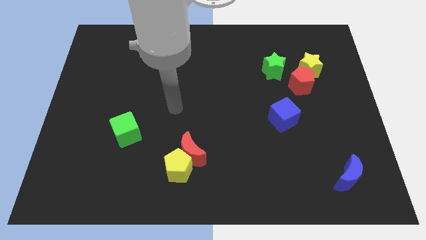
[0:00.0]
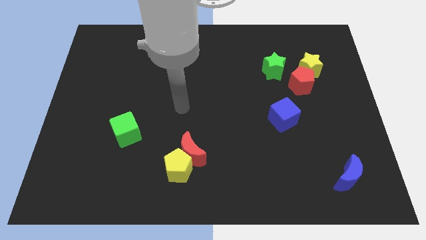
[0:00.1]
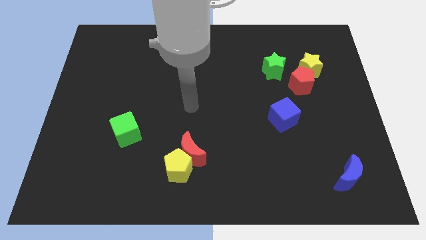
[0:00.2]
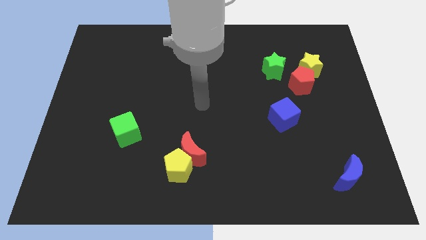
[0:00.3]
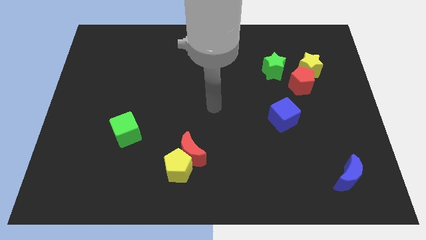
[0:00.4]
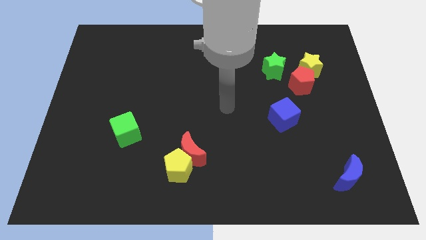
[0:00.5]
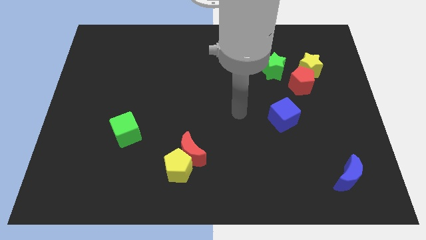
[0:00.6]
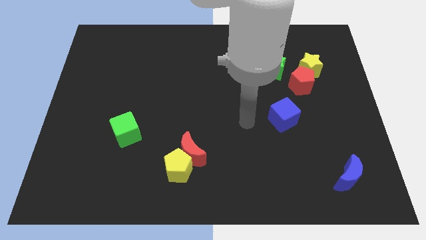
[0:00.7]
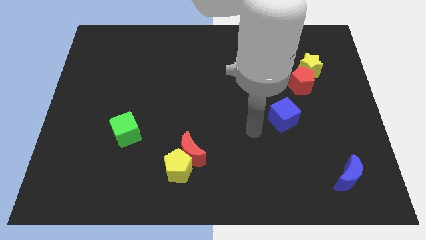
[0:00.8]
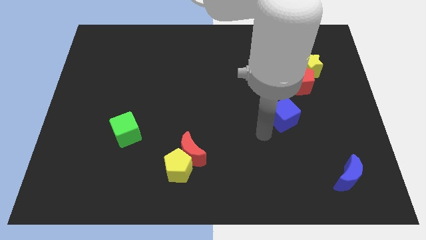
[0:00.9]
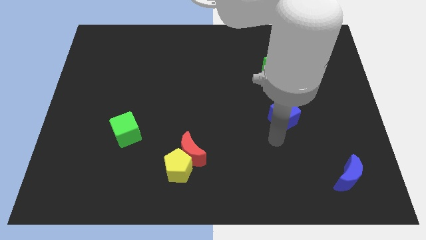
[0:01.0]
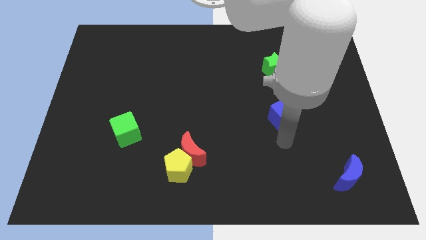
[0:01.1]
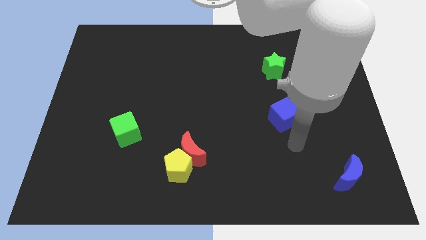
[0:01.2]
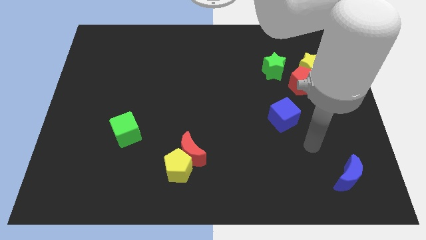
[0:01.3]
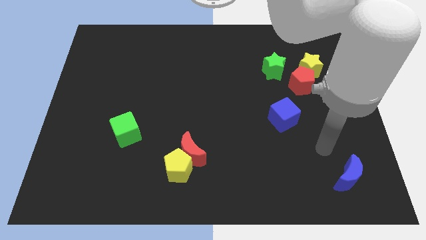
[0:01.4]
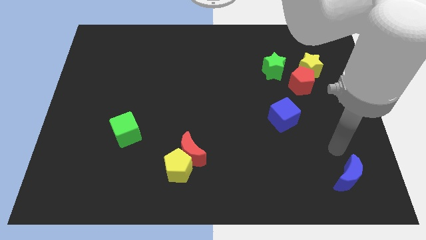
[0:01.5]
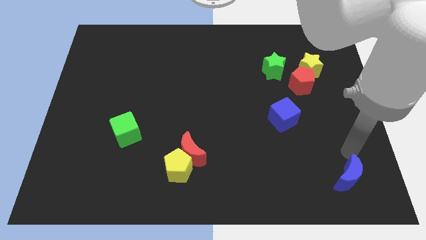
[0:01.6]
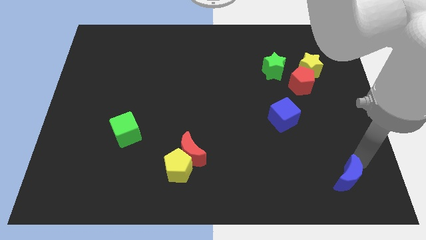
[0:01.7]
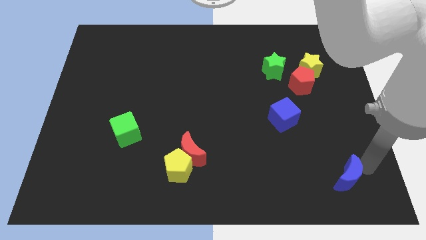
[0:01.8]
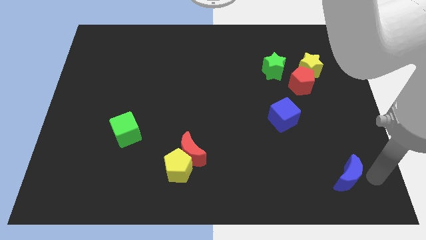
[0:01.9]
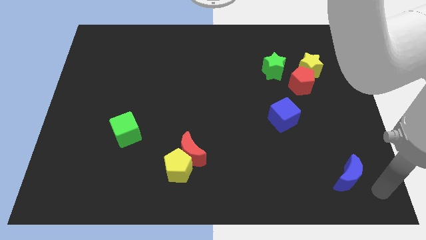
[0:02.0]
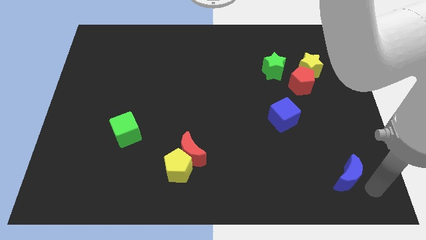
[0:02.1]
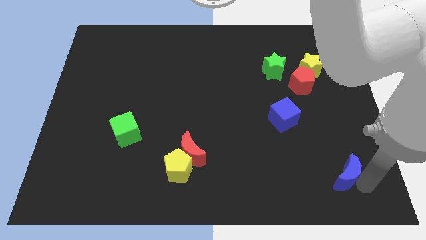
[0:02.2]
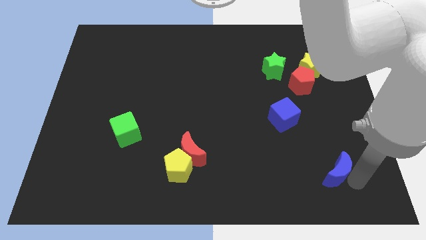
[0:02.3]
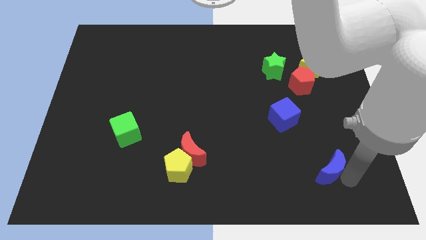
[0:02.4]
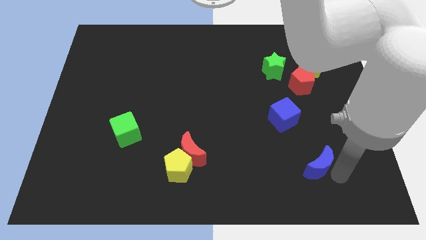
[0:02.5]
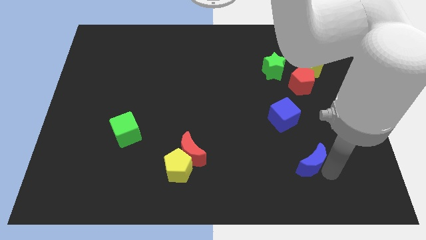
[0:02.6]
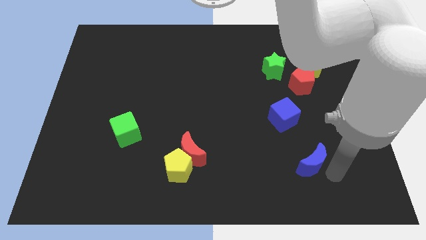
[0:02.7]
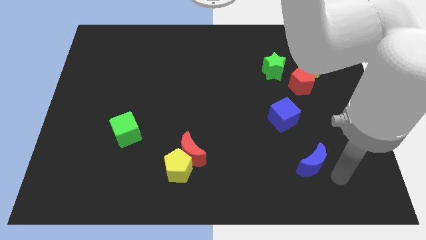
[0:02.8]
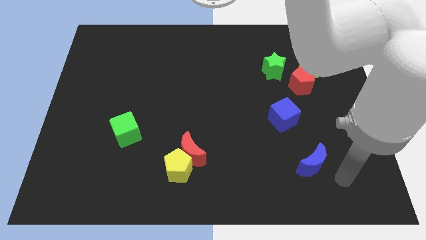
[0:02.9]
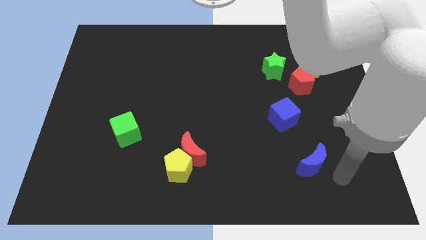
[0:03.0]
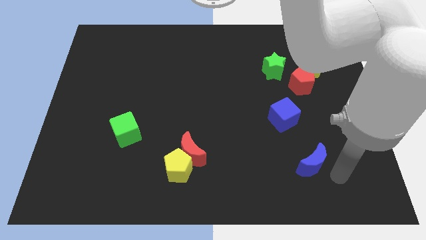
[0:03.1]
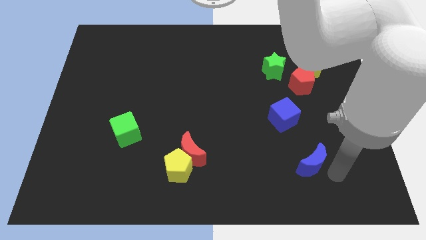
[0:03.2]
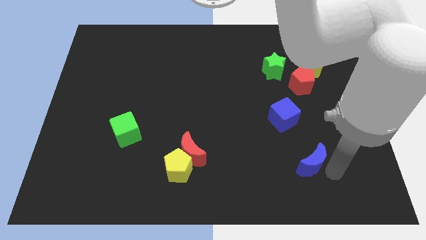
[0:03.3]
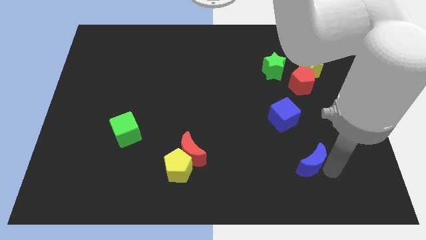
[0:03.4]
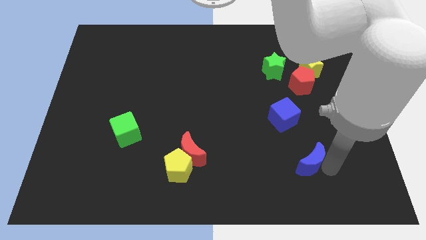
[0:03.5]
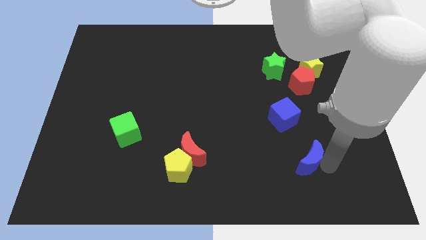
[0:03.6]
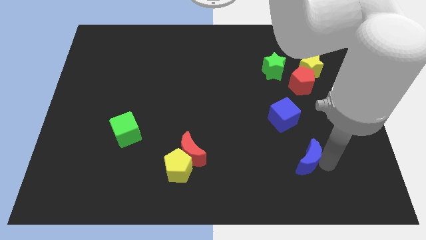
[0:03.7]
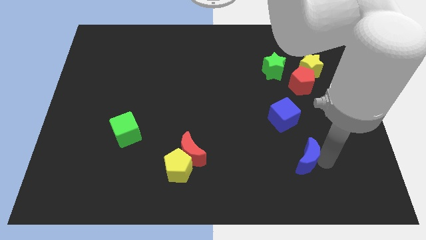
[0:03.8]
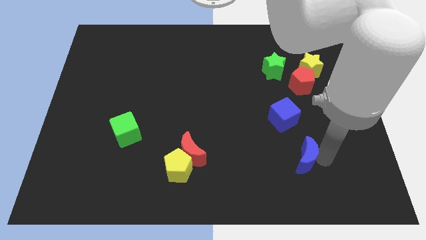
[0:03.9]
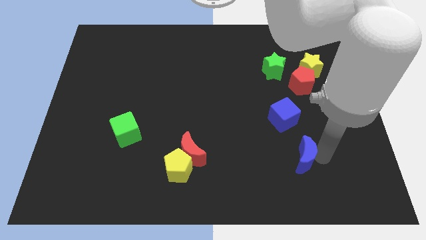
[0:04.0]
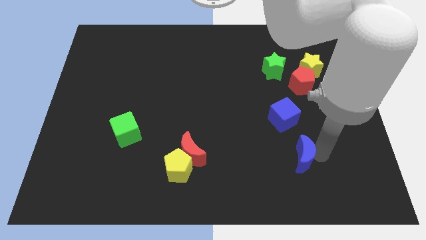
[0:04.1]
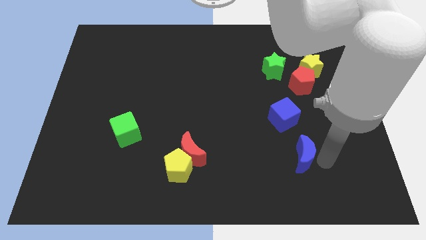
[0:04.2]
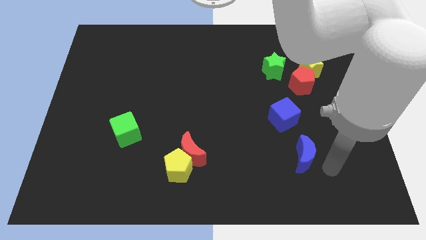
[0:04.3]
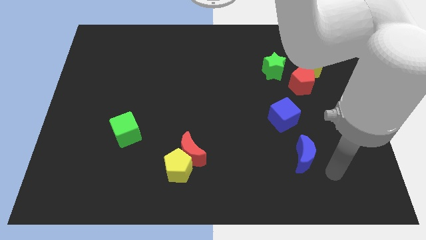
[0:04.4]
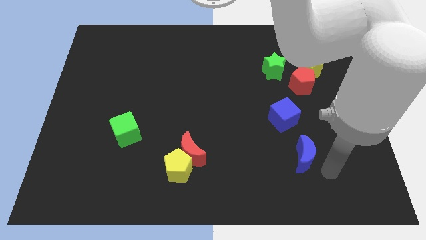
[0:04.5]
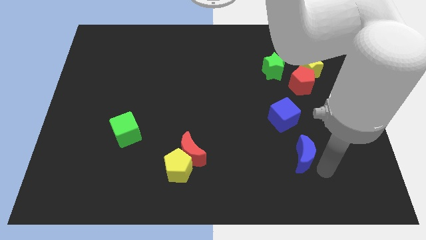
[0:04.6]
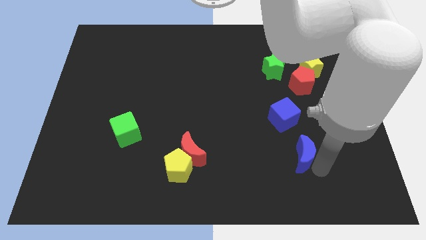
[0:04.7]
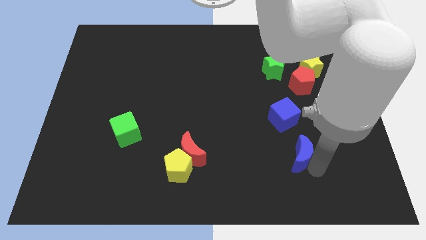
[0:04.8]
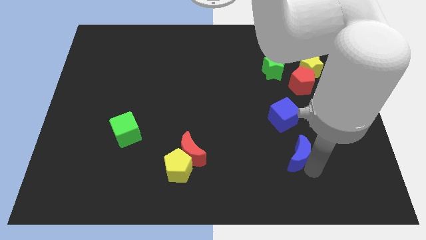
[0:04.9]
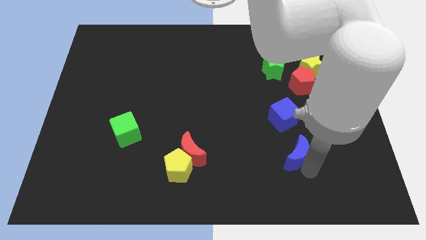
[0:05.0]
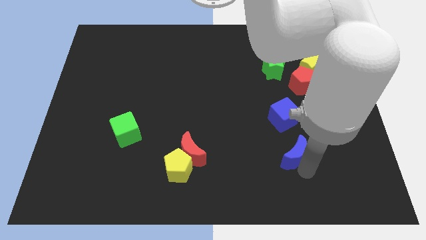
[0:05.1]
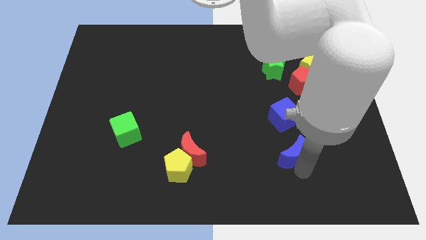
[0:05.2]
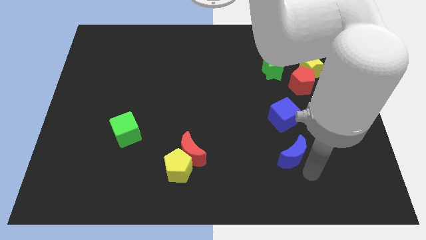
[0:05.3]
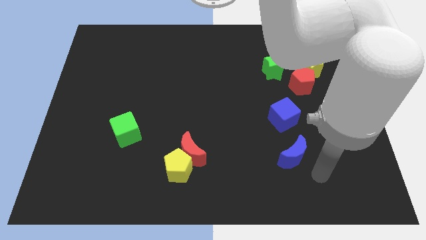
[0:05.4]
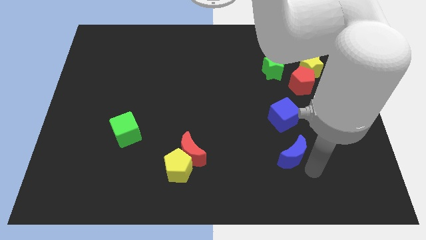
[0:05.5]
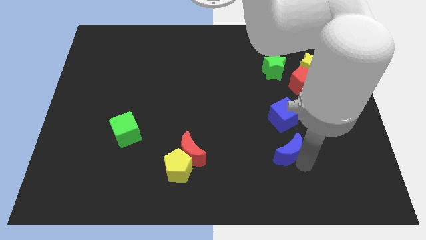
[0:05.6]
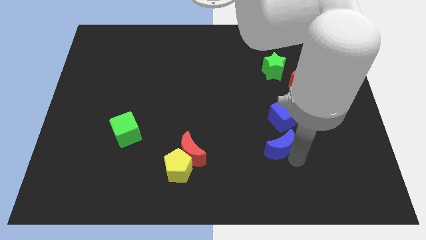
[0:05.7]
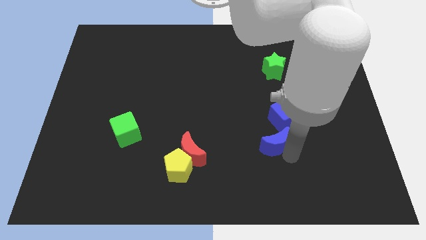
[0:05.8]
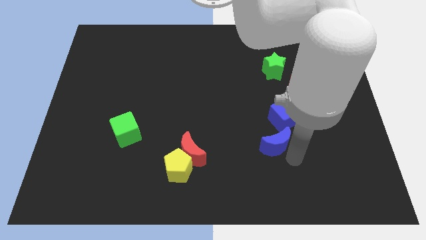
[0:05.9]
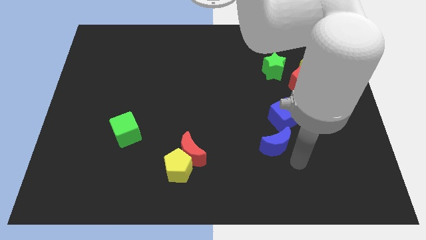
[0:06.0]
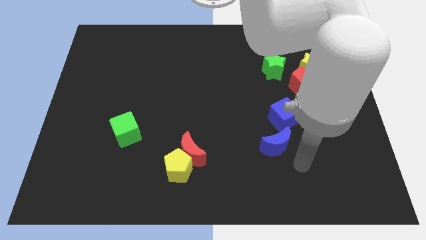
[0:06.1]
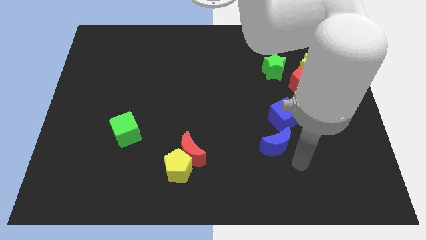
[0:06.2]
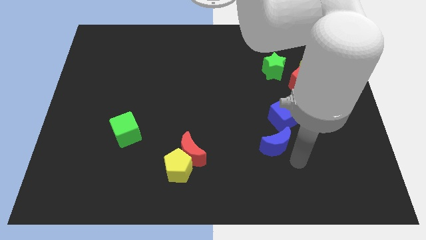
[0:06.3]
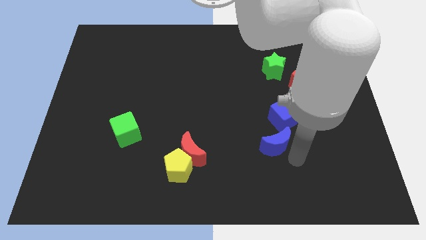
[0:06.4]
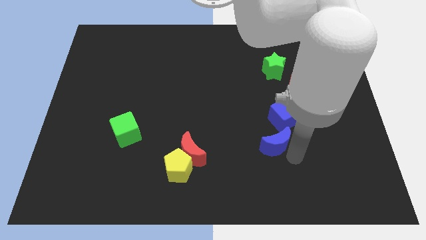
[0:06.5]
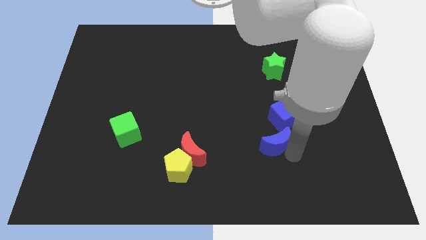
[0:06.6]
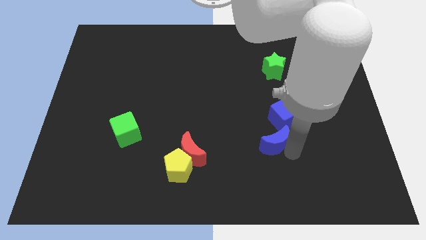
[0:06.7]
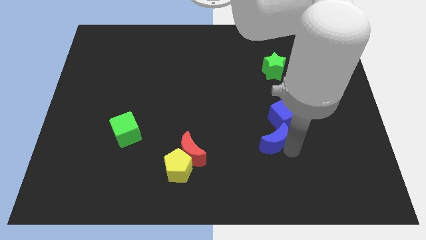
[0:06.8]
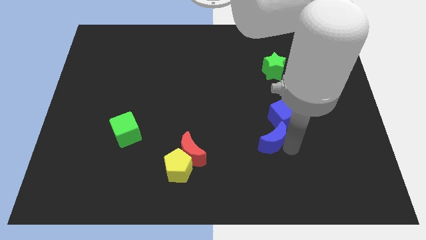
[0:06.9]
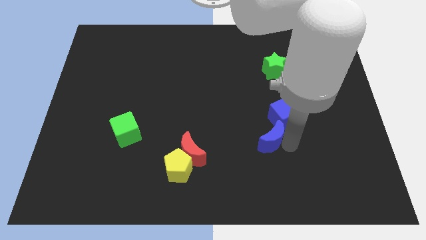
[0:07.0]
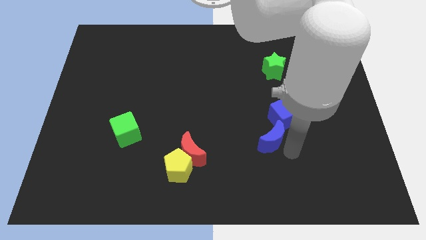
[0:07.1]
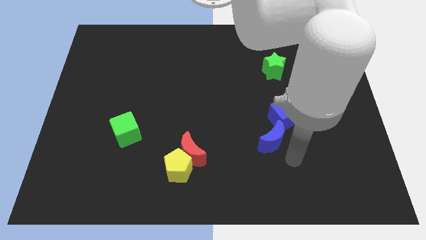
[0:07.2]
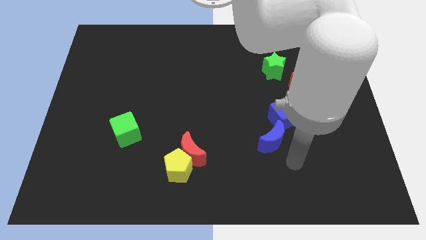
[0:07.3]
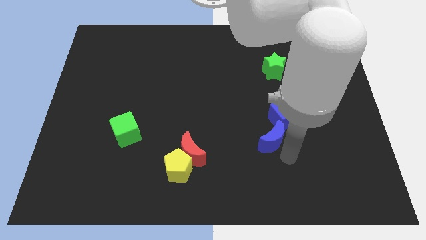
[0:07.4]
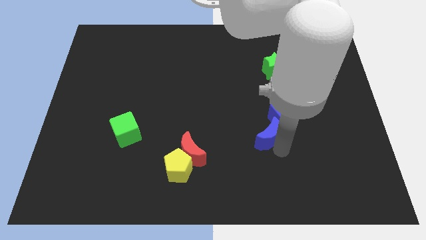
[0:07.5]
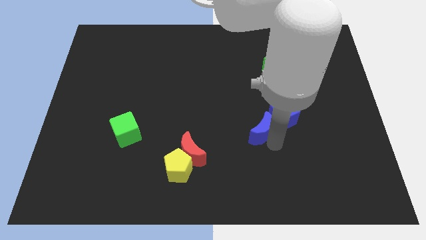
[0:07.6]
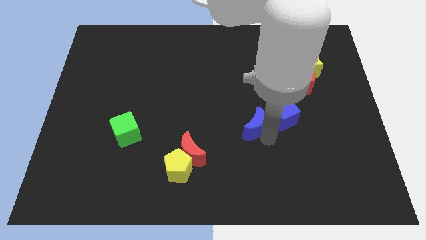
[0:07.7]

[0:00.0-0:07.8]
push the blue moon upwards and to the left

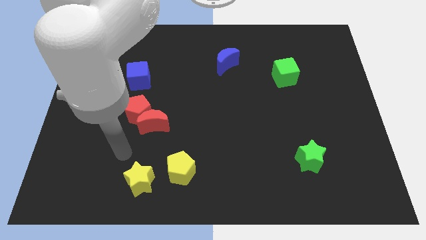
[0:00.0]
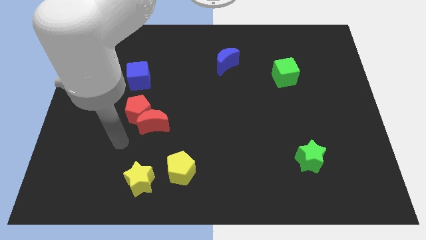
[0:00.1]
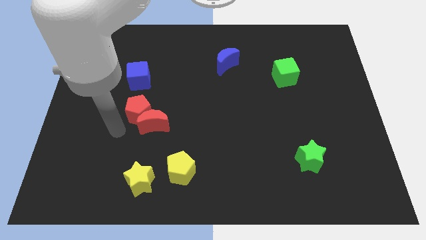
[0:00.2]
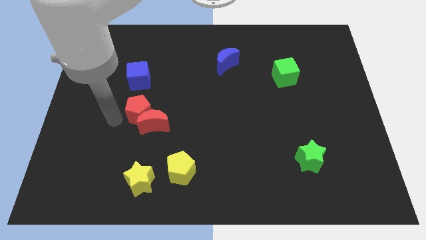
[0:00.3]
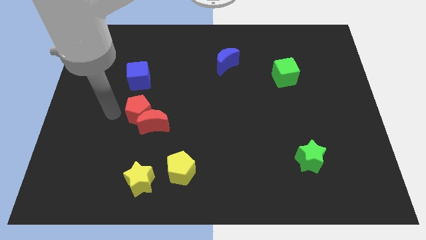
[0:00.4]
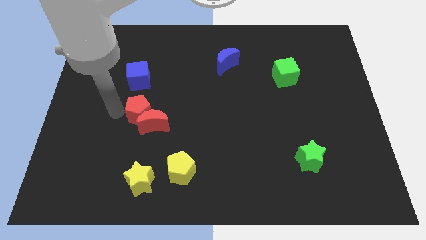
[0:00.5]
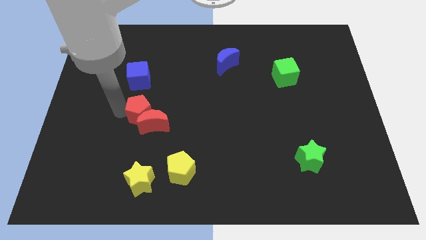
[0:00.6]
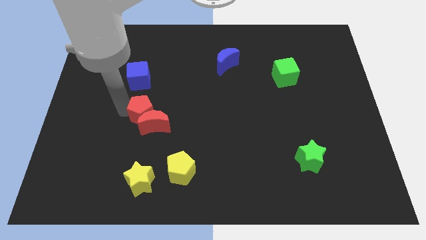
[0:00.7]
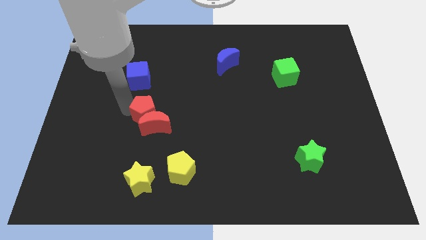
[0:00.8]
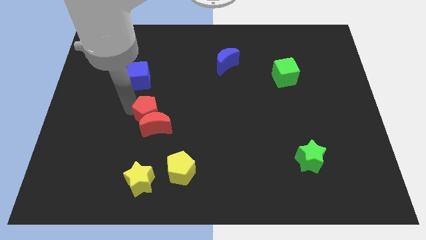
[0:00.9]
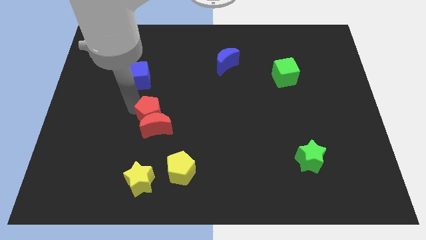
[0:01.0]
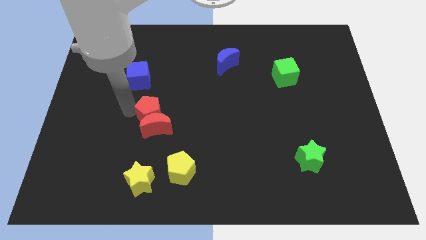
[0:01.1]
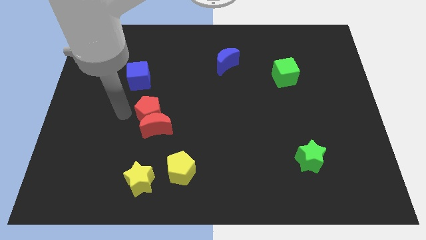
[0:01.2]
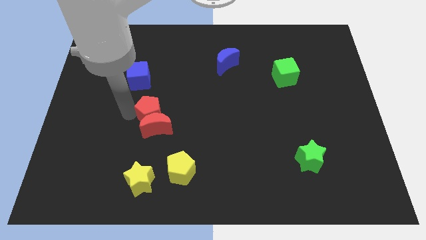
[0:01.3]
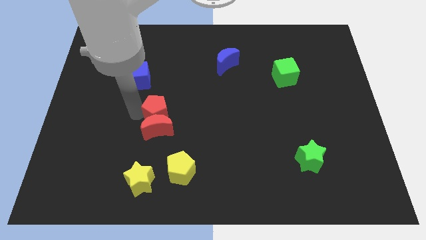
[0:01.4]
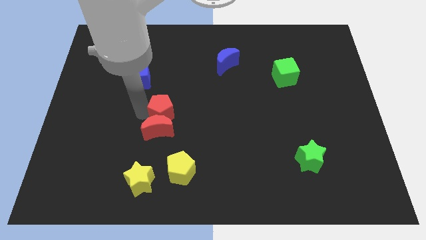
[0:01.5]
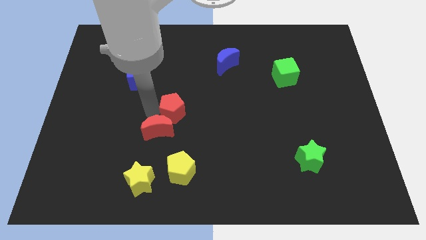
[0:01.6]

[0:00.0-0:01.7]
move the red pentagon right a bit
